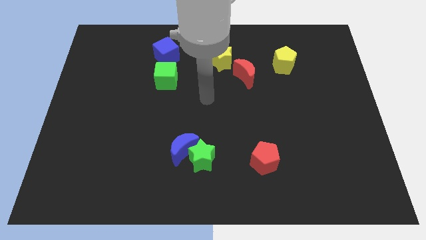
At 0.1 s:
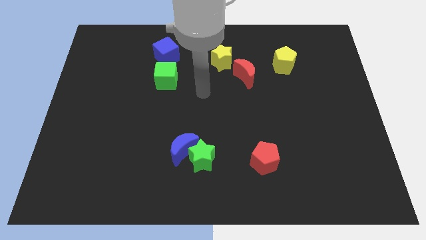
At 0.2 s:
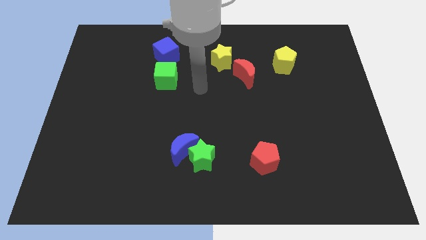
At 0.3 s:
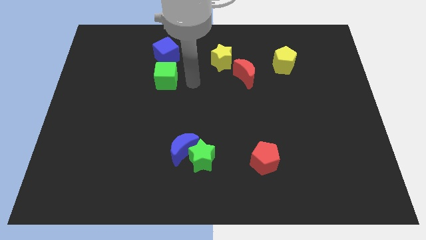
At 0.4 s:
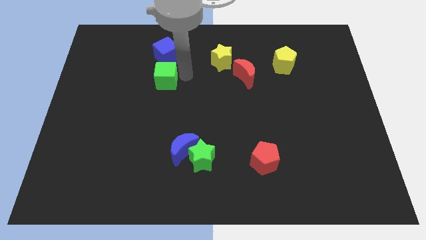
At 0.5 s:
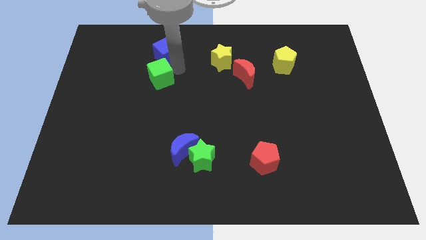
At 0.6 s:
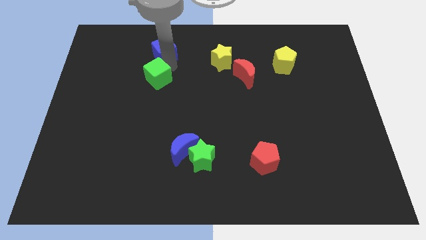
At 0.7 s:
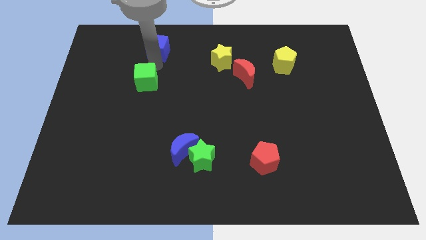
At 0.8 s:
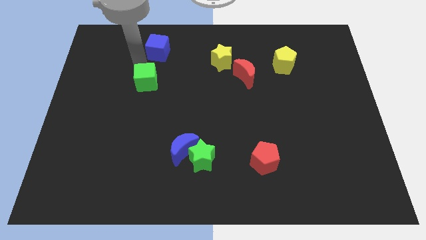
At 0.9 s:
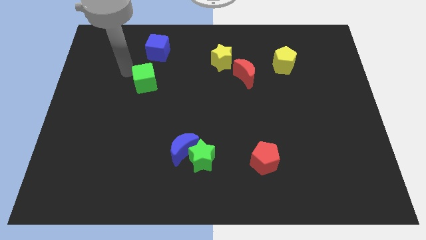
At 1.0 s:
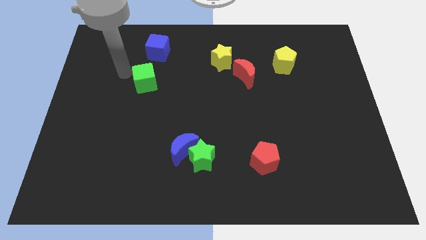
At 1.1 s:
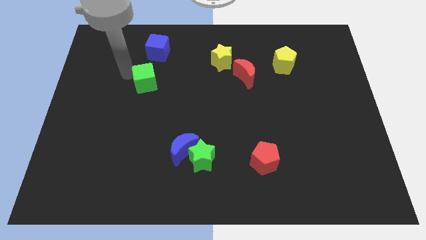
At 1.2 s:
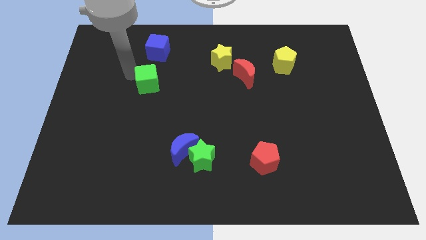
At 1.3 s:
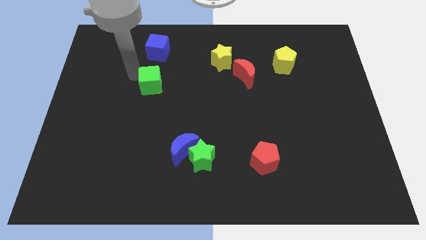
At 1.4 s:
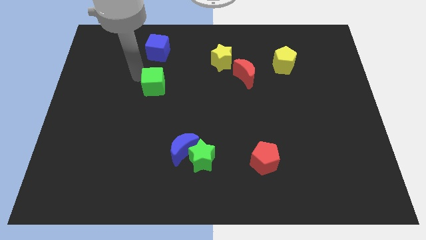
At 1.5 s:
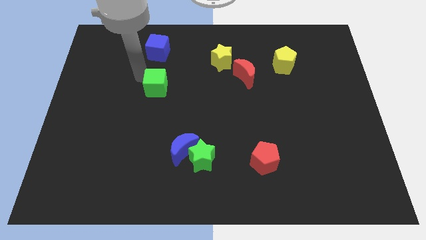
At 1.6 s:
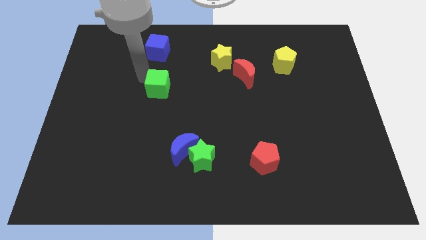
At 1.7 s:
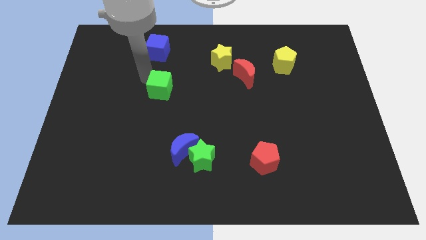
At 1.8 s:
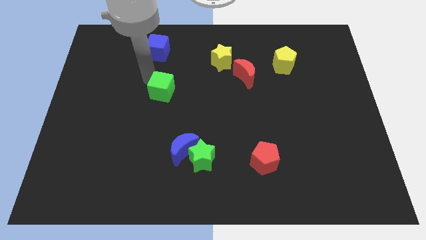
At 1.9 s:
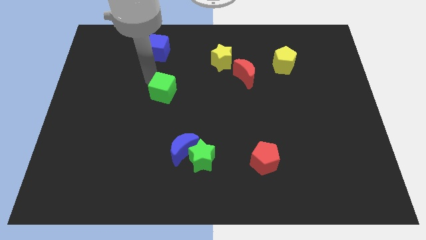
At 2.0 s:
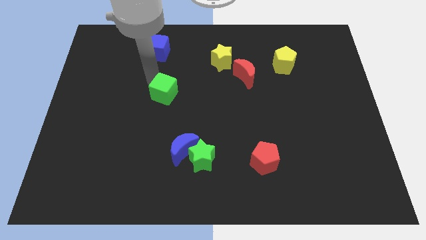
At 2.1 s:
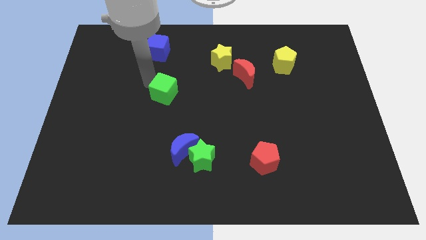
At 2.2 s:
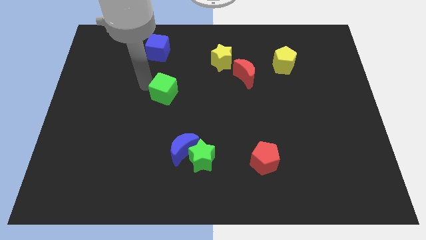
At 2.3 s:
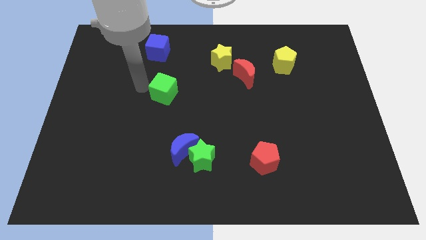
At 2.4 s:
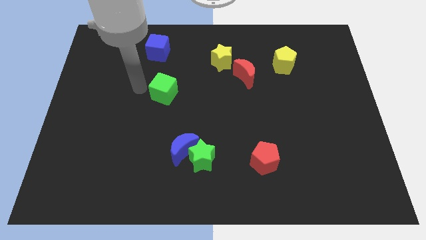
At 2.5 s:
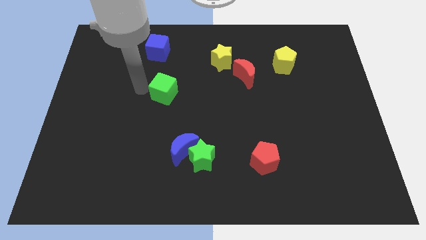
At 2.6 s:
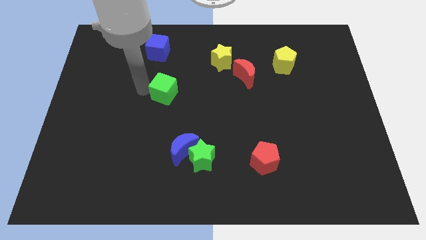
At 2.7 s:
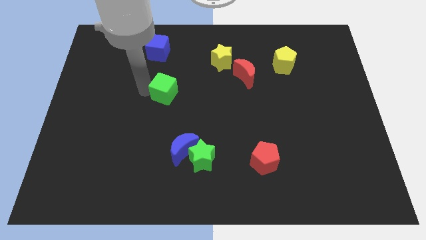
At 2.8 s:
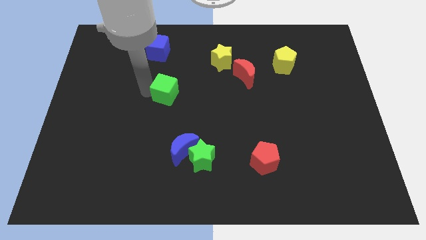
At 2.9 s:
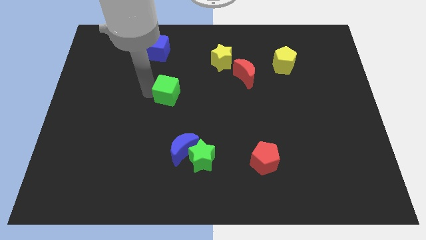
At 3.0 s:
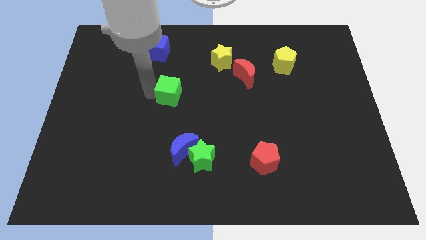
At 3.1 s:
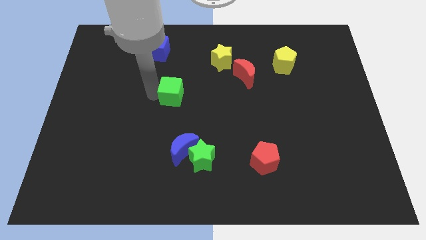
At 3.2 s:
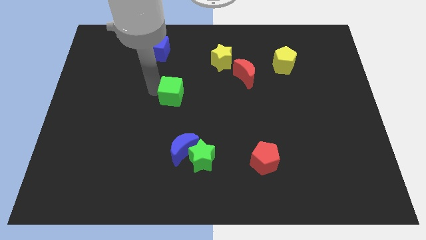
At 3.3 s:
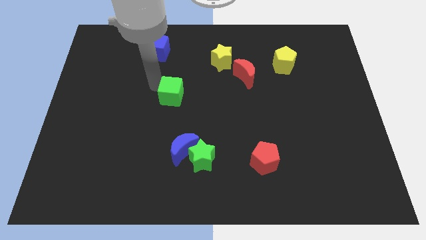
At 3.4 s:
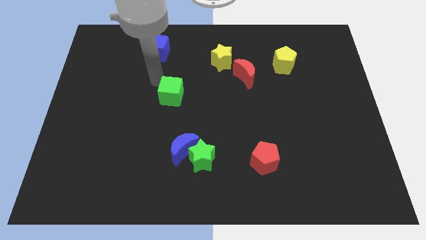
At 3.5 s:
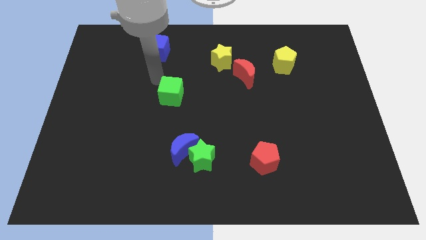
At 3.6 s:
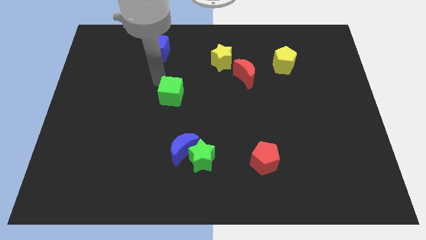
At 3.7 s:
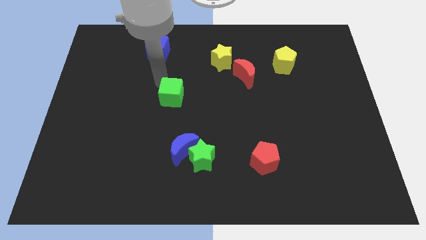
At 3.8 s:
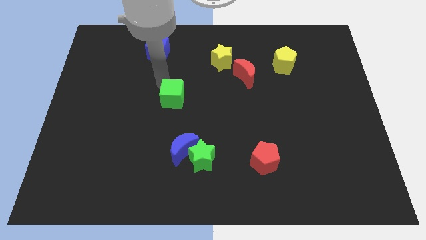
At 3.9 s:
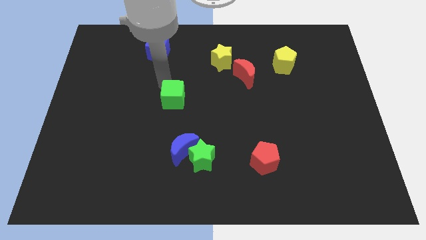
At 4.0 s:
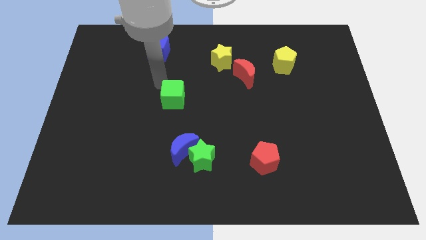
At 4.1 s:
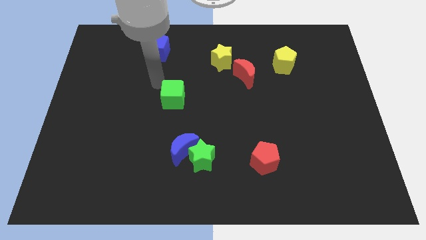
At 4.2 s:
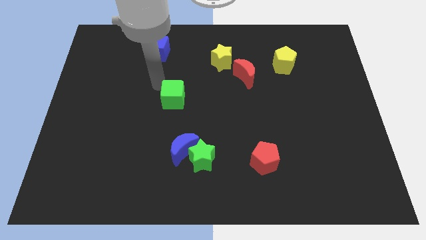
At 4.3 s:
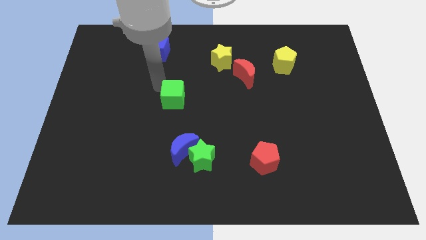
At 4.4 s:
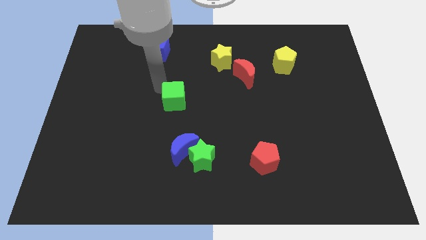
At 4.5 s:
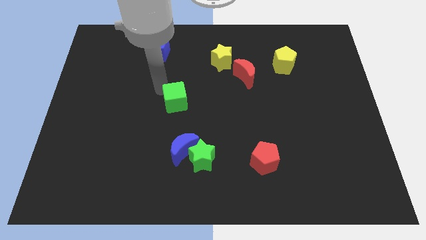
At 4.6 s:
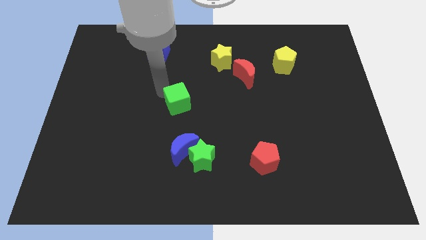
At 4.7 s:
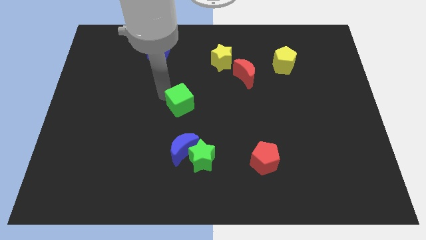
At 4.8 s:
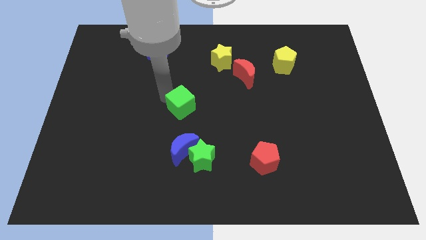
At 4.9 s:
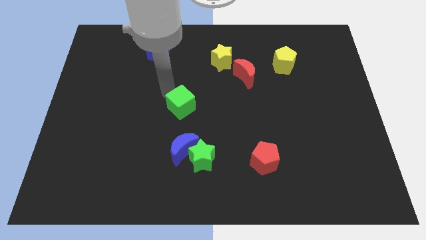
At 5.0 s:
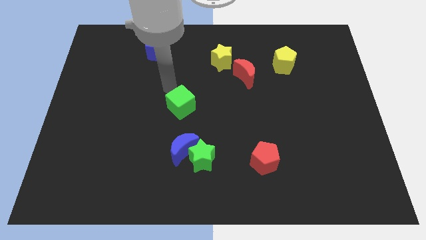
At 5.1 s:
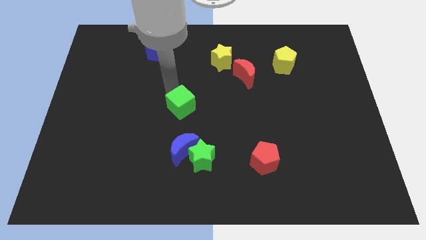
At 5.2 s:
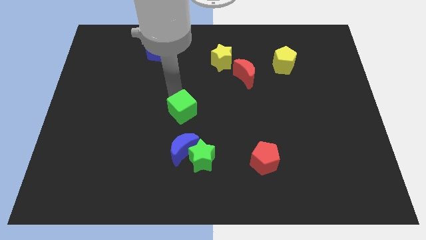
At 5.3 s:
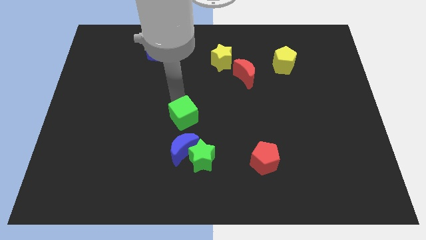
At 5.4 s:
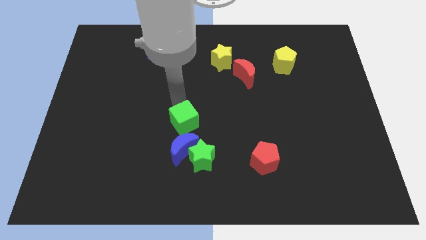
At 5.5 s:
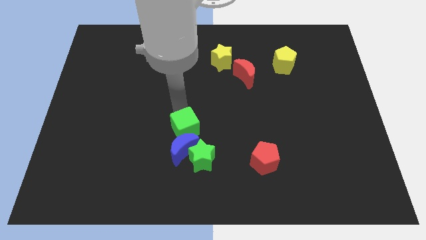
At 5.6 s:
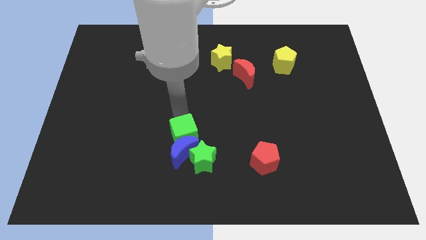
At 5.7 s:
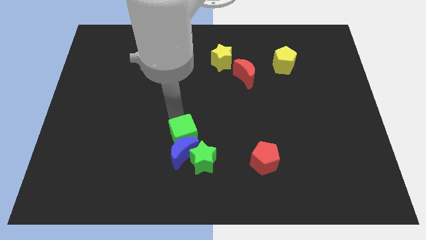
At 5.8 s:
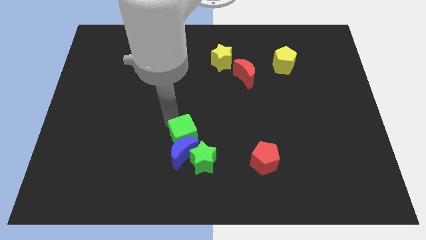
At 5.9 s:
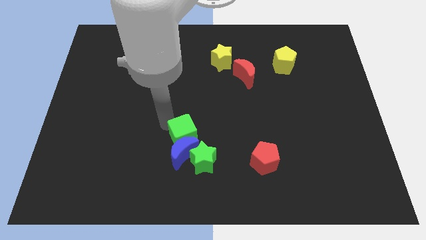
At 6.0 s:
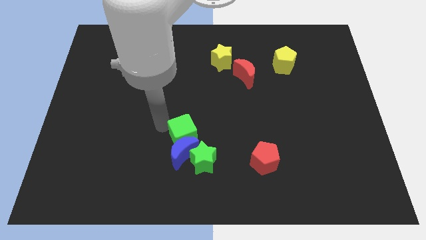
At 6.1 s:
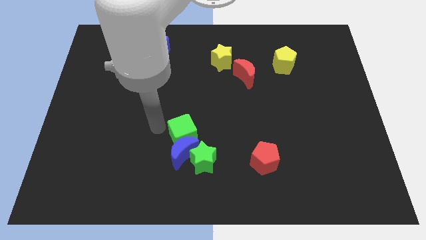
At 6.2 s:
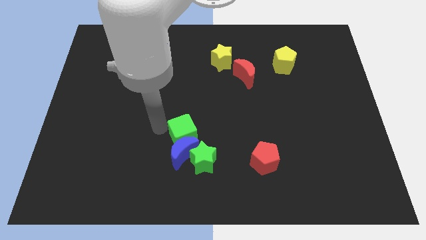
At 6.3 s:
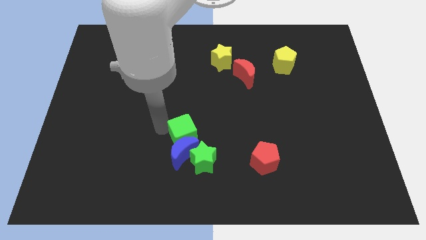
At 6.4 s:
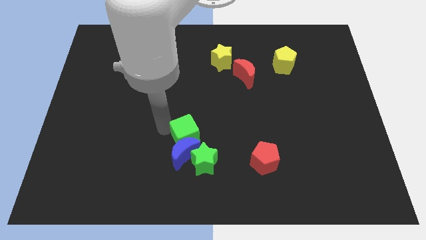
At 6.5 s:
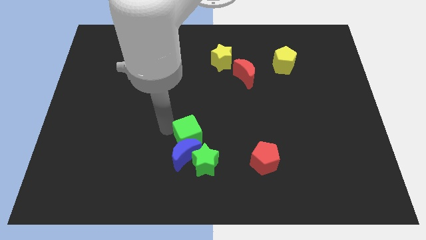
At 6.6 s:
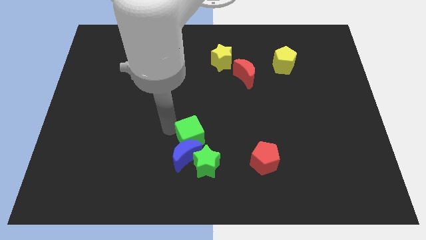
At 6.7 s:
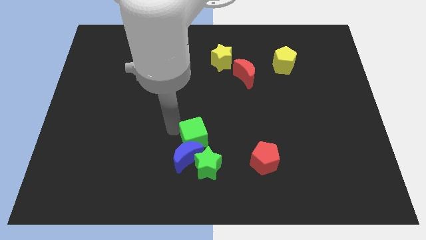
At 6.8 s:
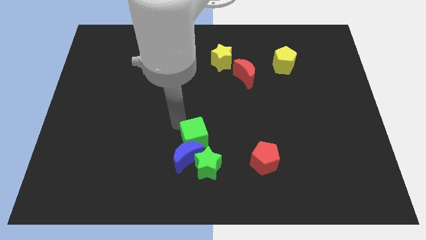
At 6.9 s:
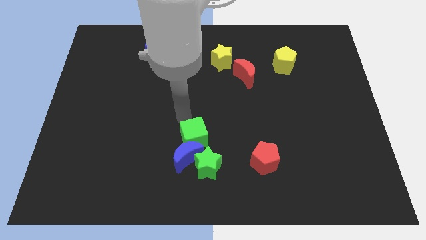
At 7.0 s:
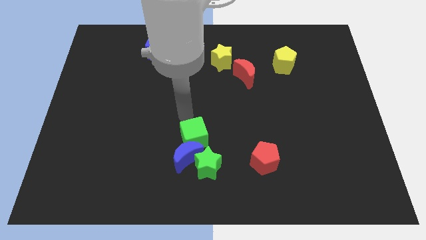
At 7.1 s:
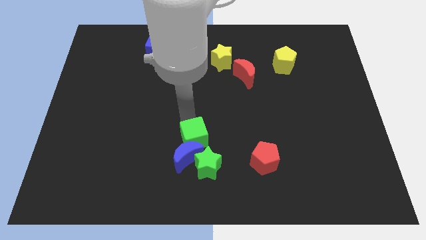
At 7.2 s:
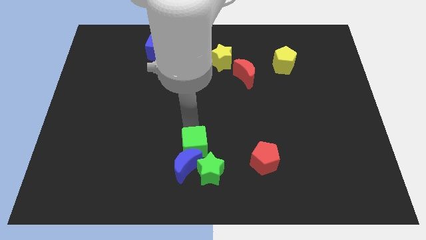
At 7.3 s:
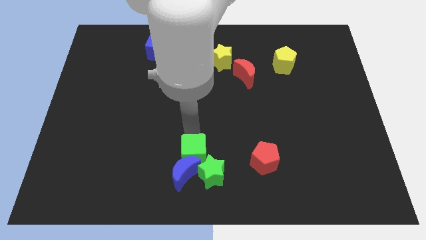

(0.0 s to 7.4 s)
move the green cube to the green star

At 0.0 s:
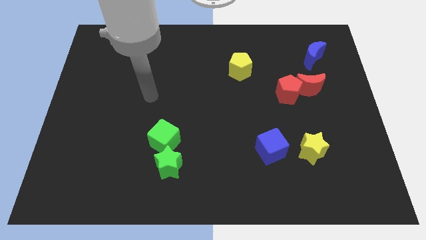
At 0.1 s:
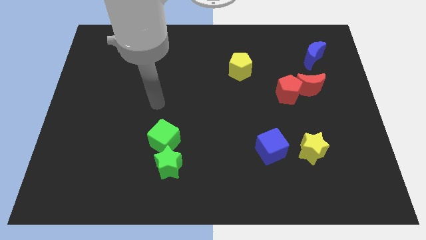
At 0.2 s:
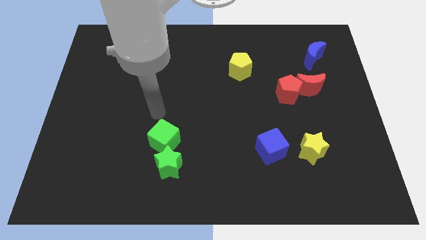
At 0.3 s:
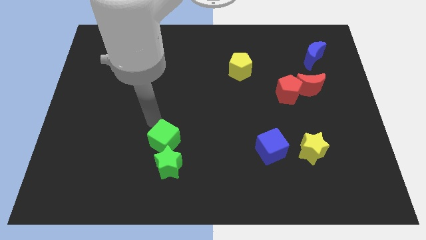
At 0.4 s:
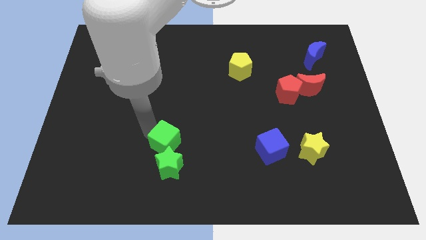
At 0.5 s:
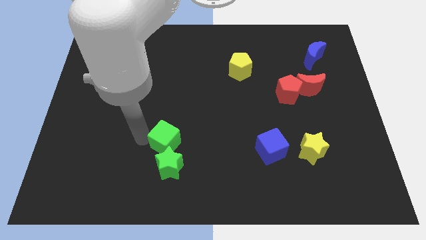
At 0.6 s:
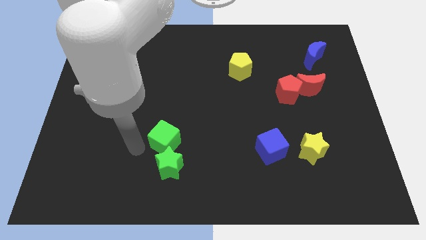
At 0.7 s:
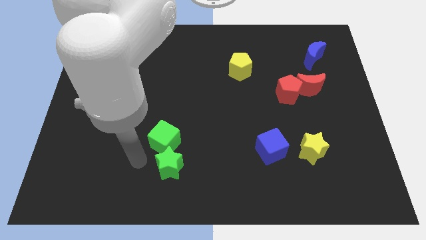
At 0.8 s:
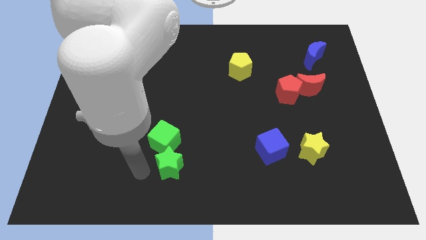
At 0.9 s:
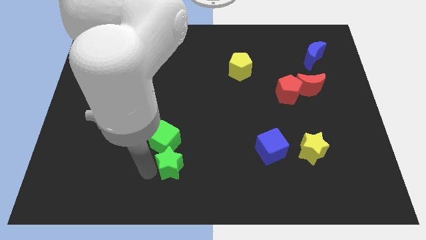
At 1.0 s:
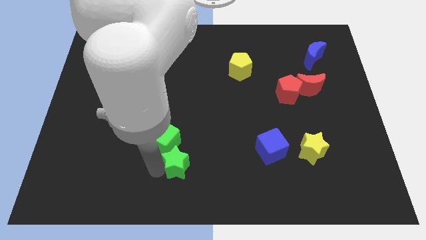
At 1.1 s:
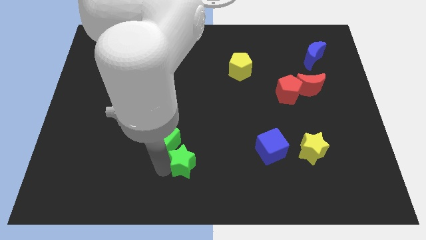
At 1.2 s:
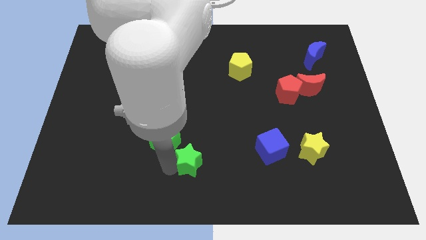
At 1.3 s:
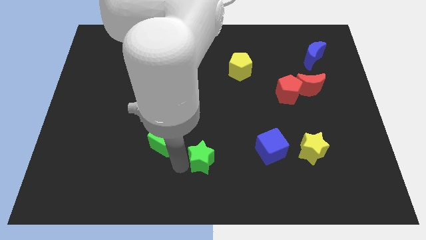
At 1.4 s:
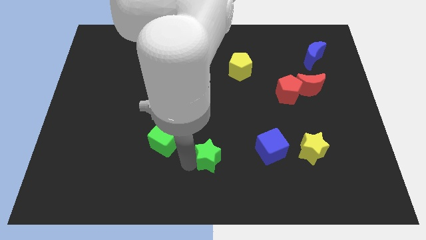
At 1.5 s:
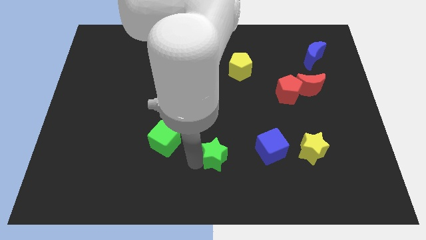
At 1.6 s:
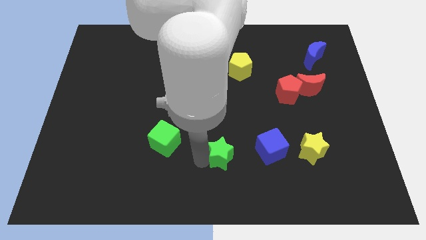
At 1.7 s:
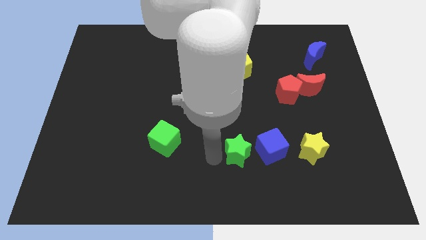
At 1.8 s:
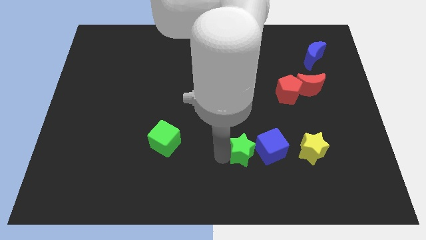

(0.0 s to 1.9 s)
put the green star towards the blue cube
